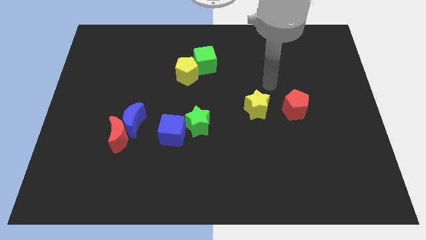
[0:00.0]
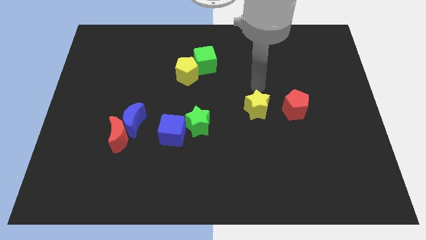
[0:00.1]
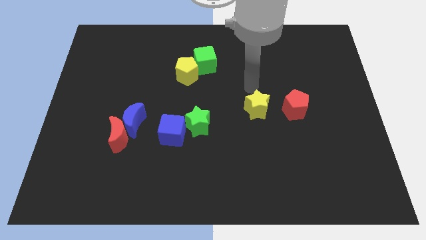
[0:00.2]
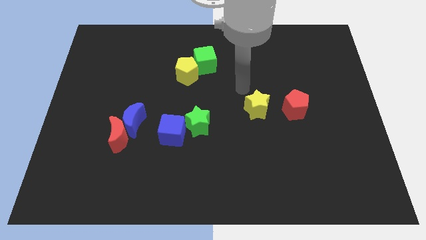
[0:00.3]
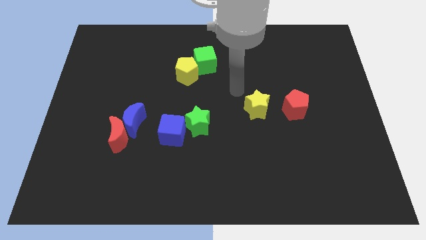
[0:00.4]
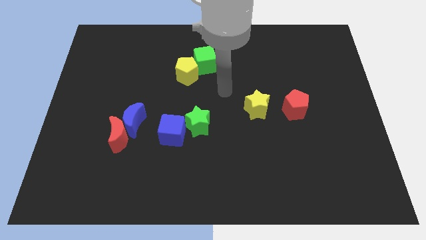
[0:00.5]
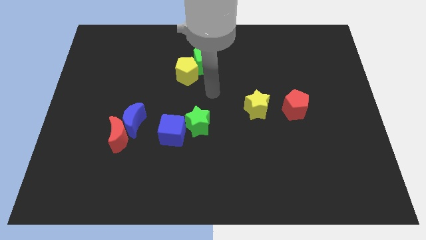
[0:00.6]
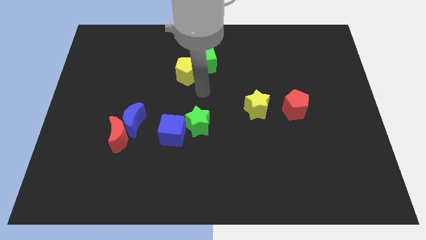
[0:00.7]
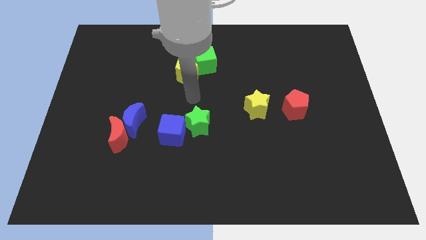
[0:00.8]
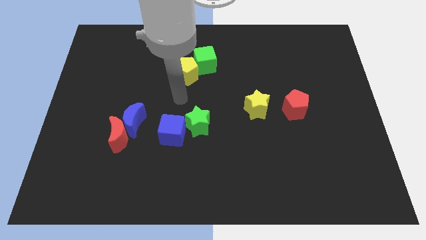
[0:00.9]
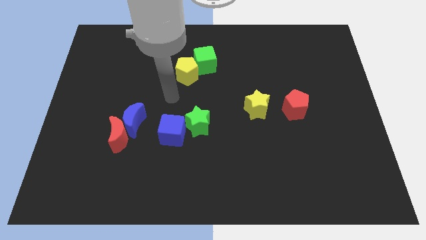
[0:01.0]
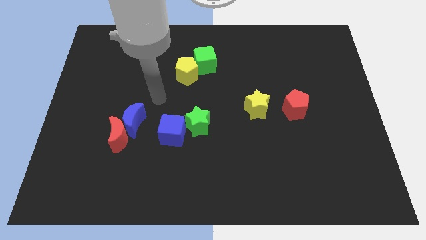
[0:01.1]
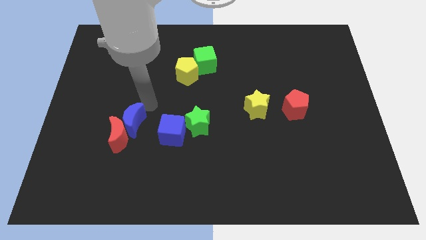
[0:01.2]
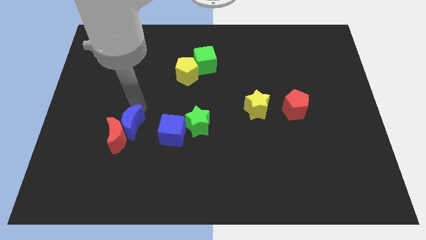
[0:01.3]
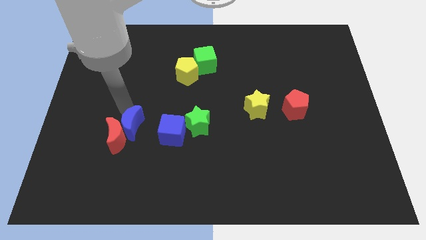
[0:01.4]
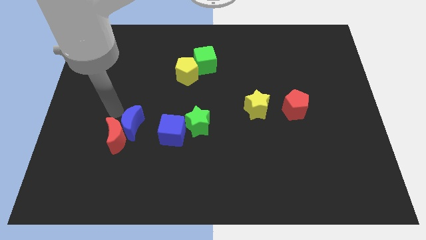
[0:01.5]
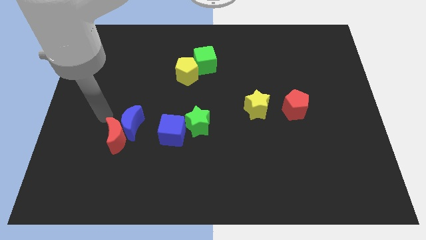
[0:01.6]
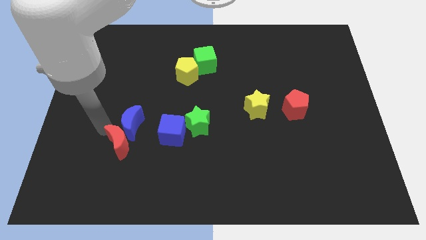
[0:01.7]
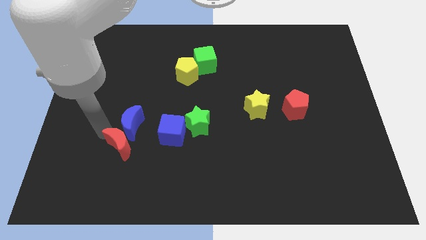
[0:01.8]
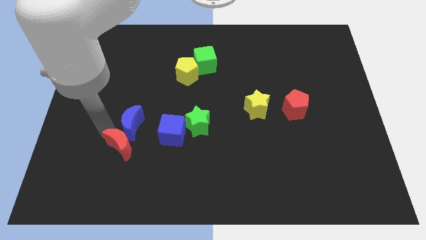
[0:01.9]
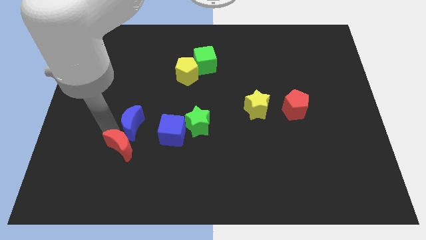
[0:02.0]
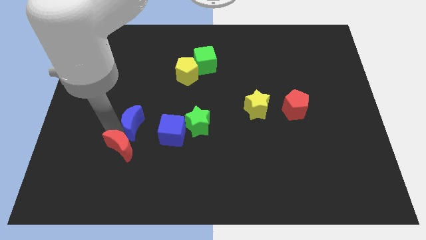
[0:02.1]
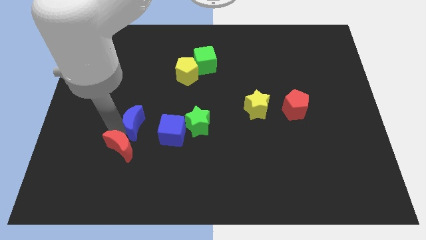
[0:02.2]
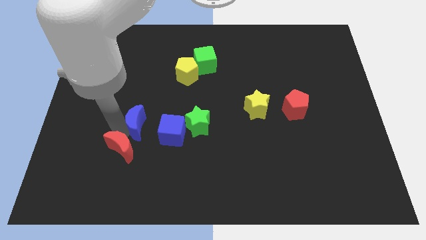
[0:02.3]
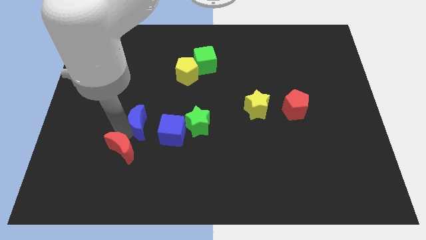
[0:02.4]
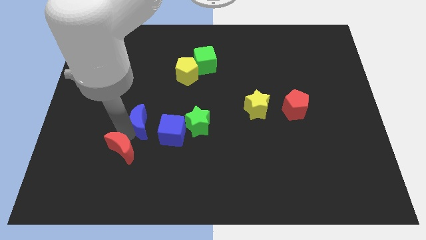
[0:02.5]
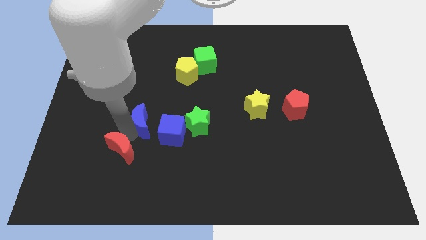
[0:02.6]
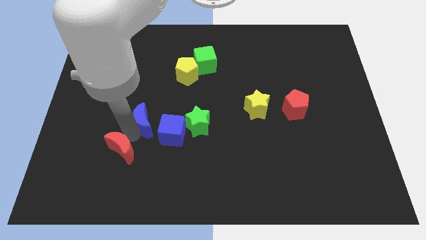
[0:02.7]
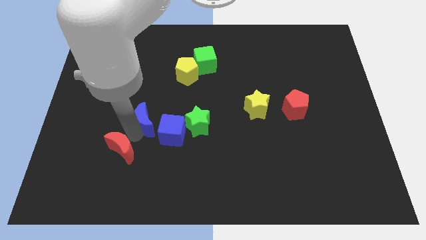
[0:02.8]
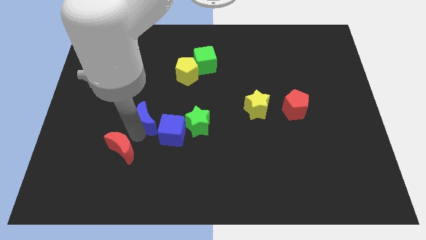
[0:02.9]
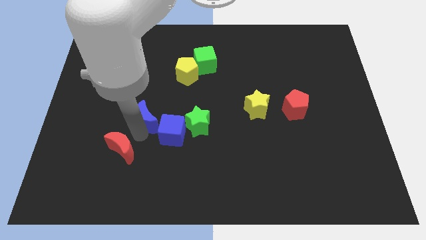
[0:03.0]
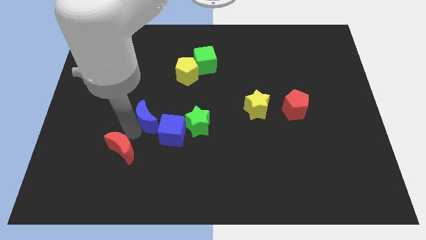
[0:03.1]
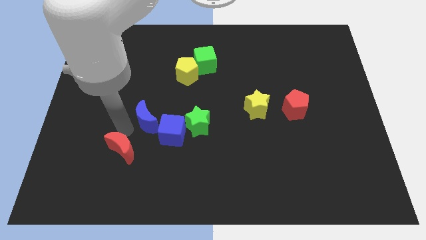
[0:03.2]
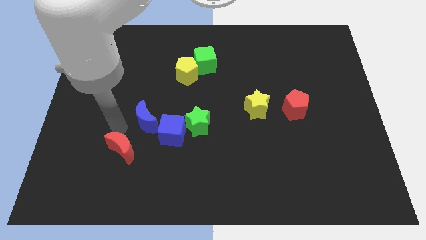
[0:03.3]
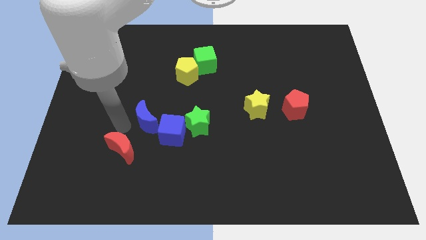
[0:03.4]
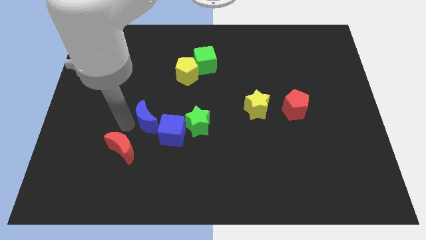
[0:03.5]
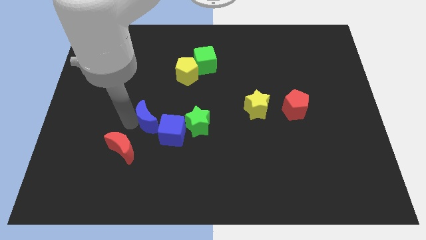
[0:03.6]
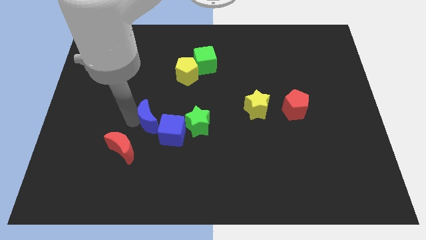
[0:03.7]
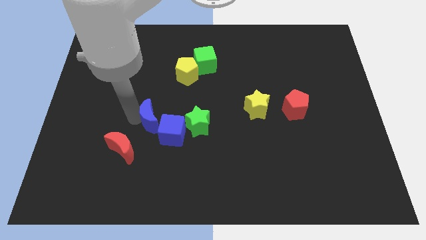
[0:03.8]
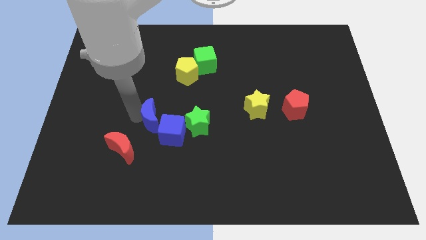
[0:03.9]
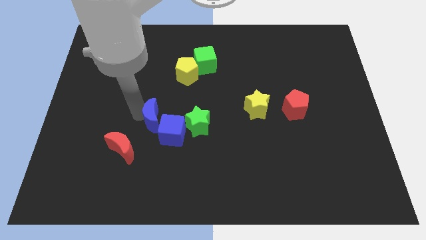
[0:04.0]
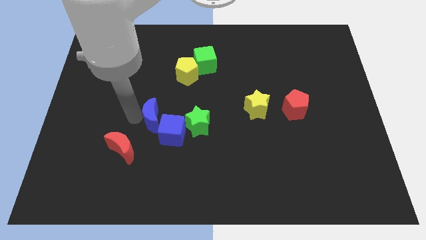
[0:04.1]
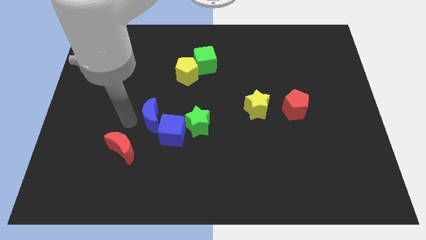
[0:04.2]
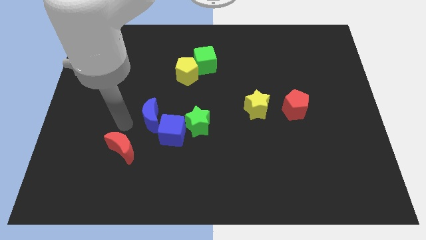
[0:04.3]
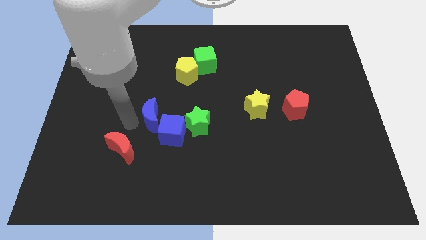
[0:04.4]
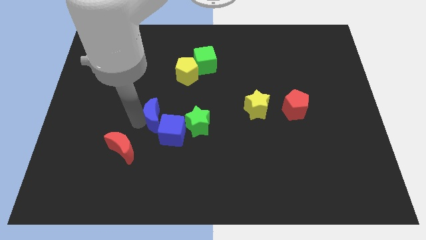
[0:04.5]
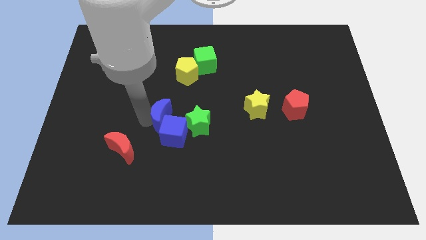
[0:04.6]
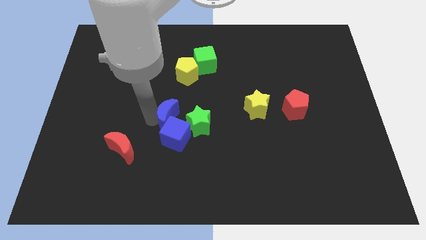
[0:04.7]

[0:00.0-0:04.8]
slightly move the blue moon right

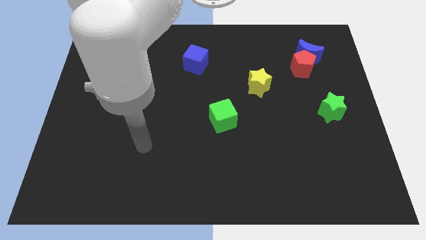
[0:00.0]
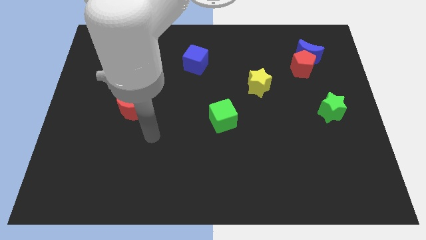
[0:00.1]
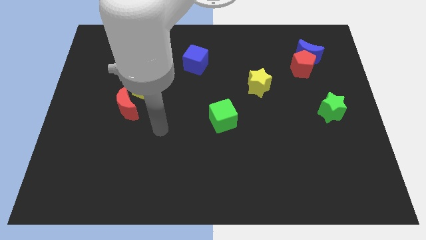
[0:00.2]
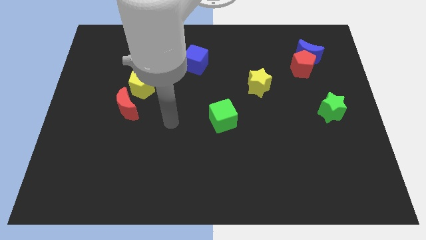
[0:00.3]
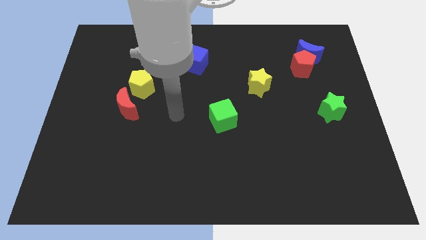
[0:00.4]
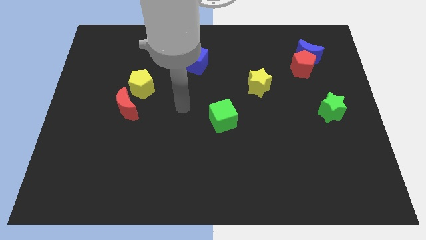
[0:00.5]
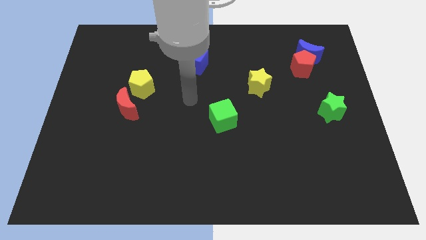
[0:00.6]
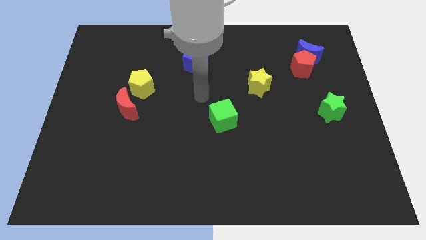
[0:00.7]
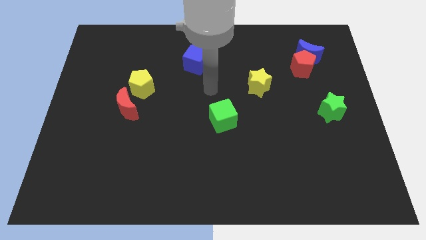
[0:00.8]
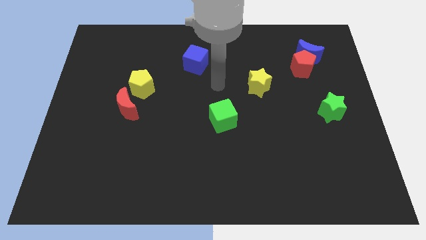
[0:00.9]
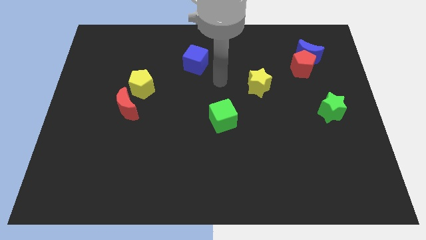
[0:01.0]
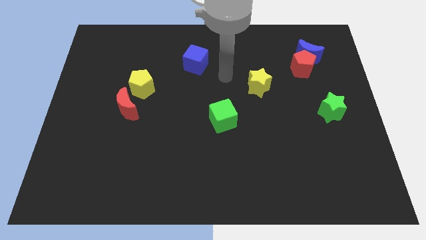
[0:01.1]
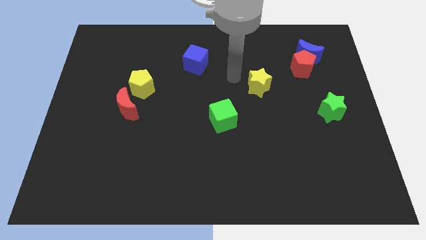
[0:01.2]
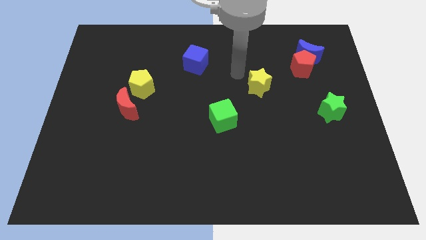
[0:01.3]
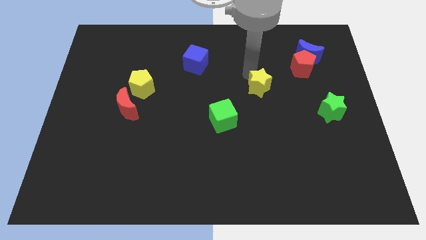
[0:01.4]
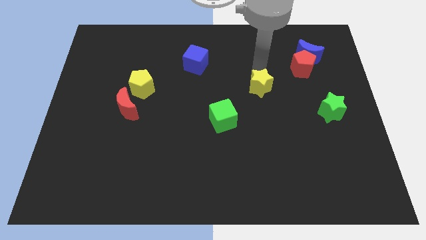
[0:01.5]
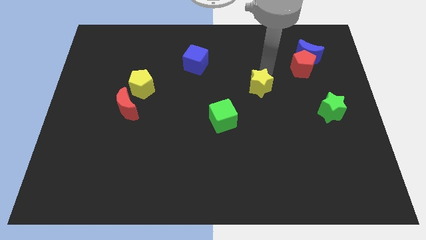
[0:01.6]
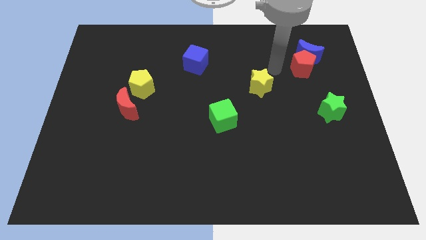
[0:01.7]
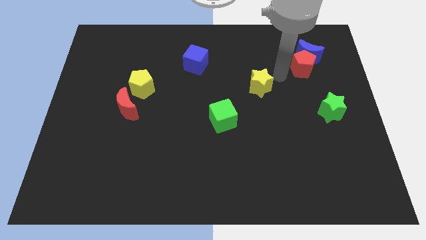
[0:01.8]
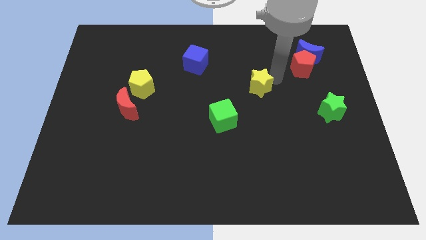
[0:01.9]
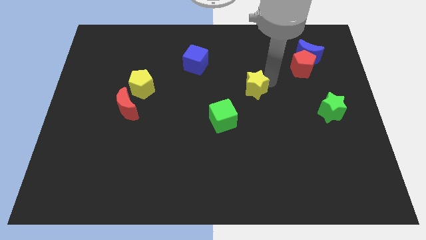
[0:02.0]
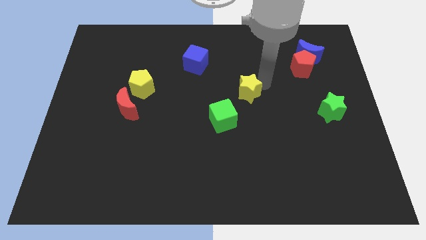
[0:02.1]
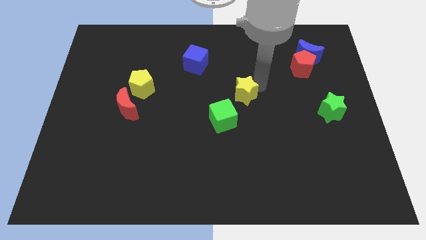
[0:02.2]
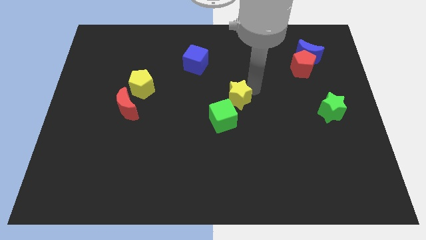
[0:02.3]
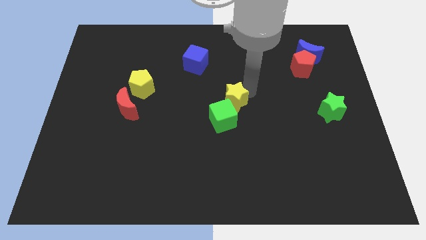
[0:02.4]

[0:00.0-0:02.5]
slightly move the yellow star down and to the left

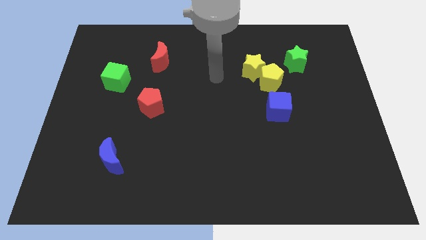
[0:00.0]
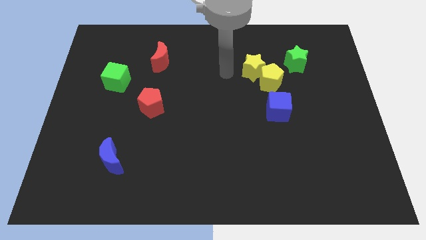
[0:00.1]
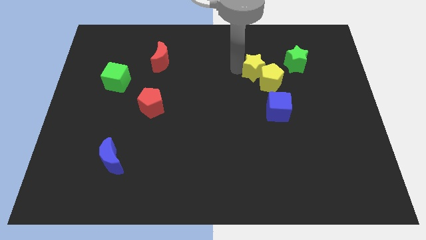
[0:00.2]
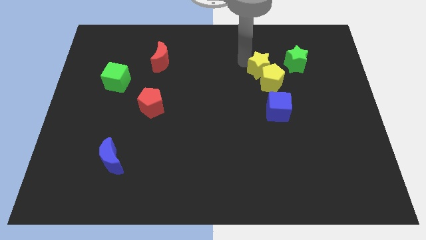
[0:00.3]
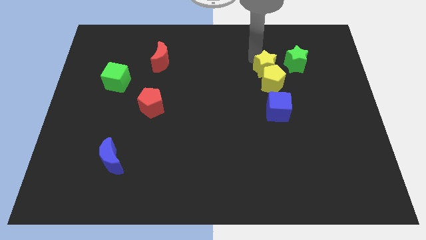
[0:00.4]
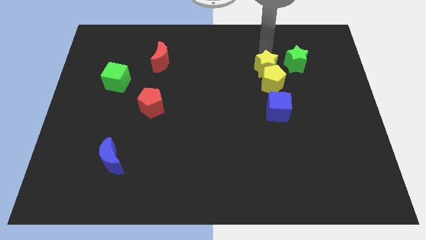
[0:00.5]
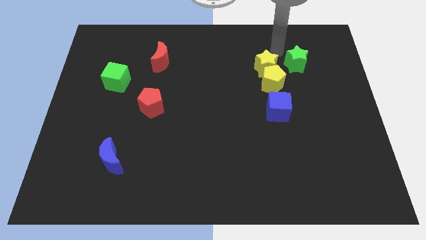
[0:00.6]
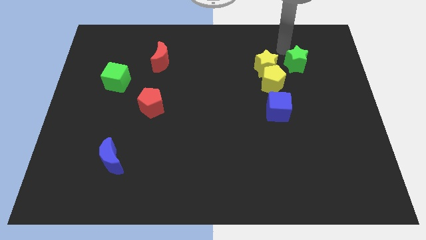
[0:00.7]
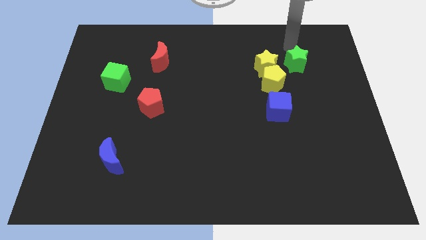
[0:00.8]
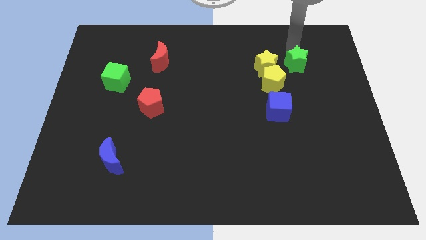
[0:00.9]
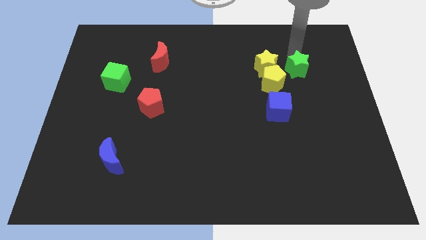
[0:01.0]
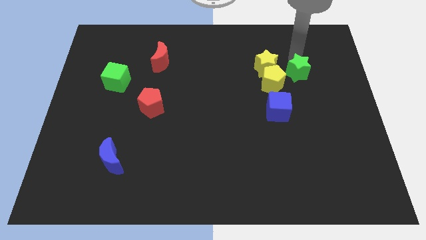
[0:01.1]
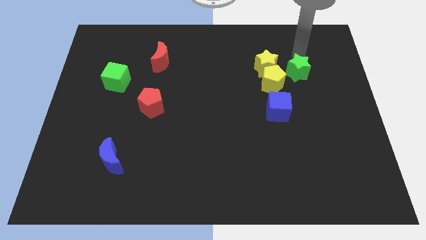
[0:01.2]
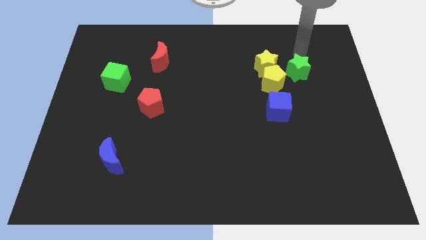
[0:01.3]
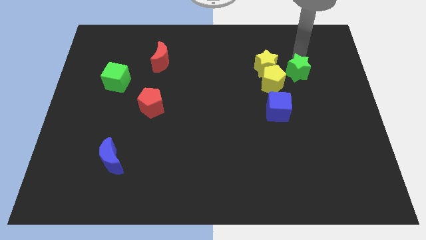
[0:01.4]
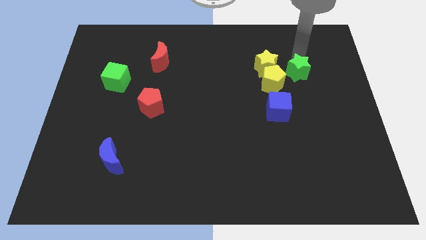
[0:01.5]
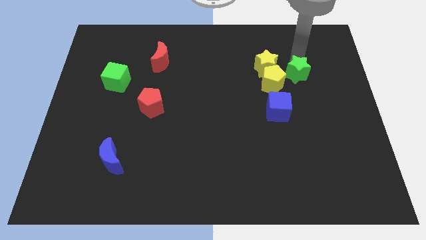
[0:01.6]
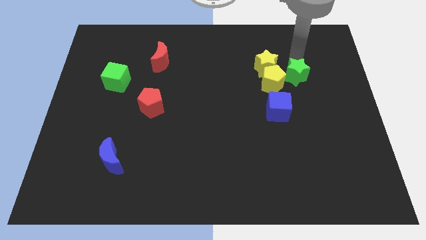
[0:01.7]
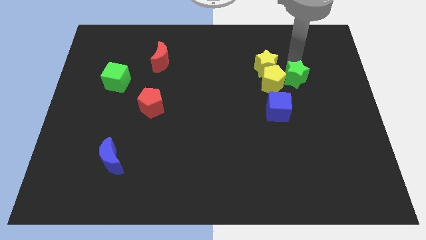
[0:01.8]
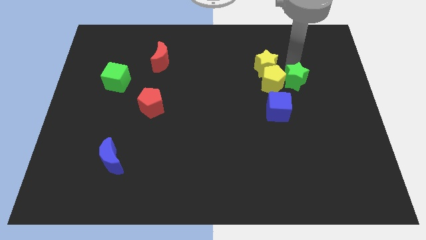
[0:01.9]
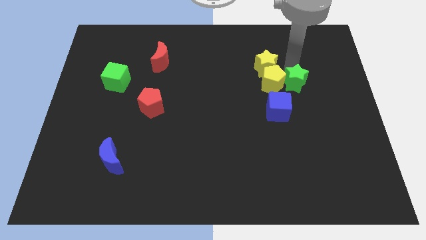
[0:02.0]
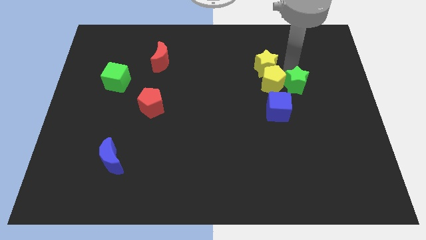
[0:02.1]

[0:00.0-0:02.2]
move the green star a little down
